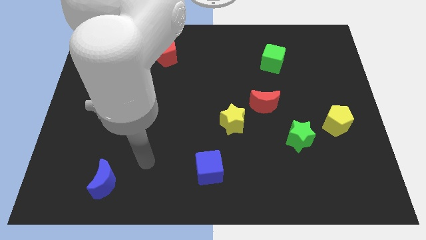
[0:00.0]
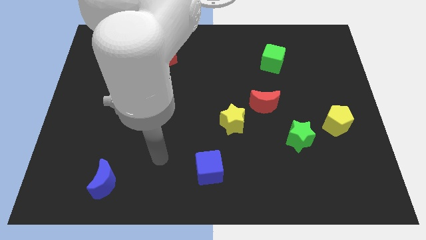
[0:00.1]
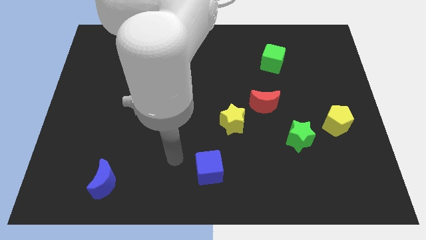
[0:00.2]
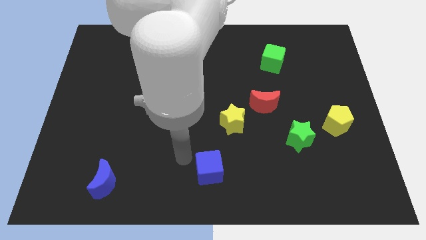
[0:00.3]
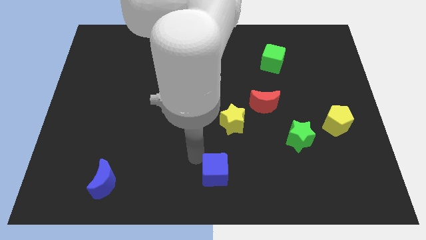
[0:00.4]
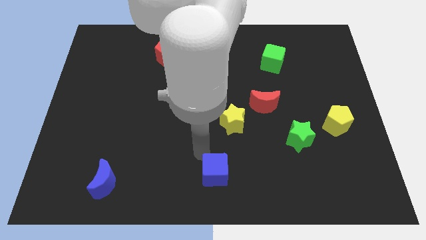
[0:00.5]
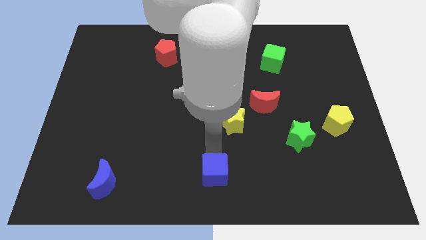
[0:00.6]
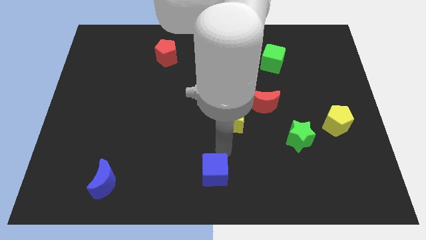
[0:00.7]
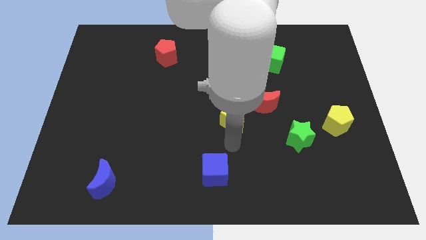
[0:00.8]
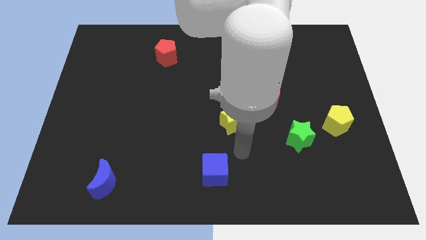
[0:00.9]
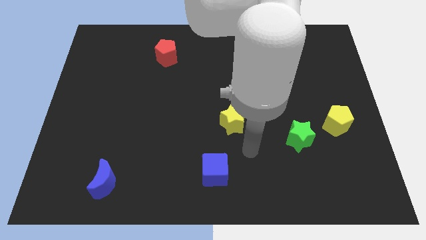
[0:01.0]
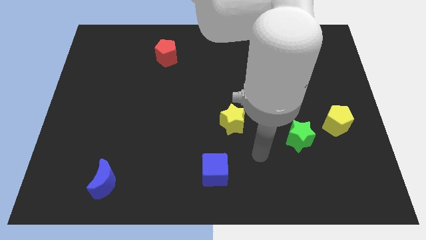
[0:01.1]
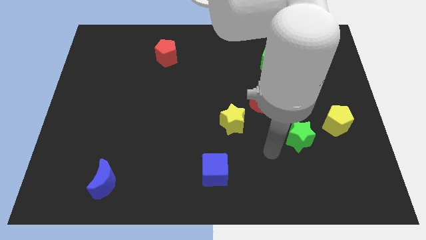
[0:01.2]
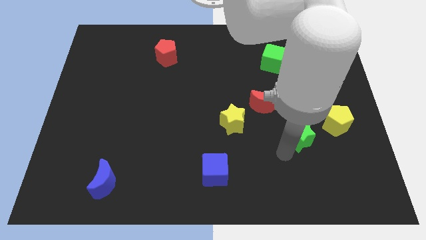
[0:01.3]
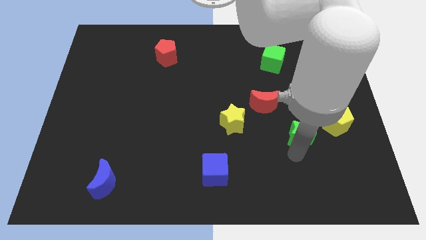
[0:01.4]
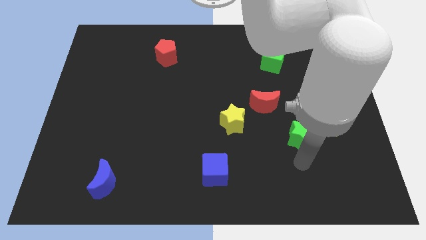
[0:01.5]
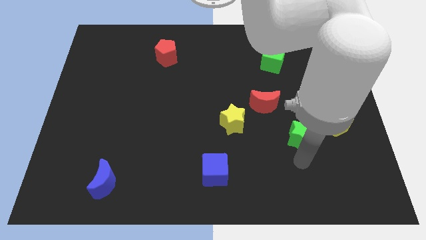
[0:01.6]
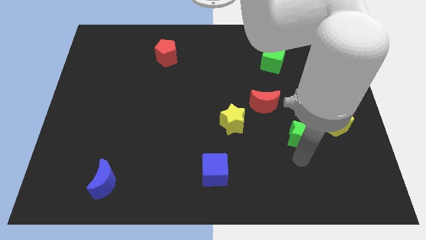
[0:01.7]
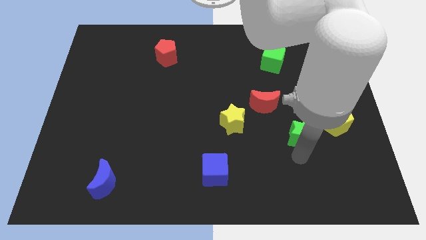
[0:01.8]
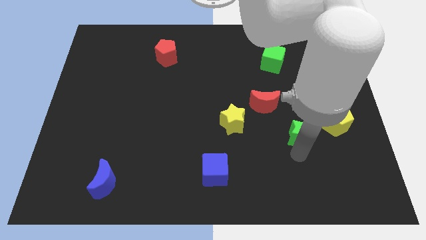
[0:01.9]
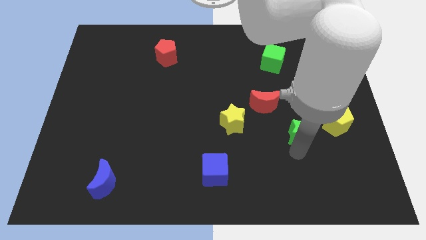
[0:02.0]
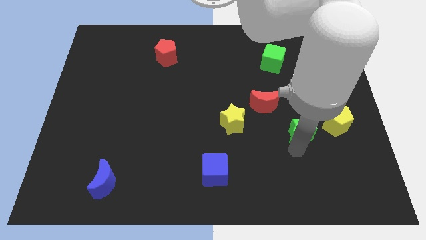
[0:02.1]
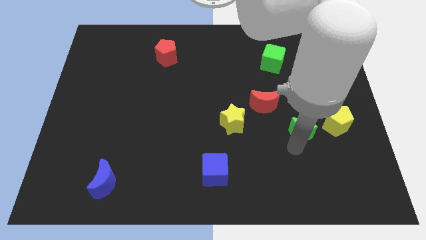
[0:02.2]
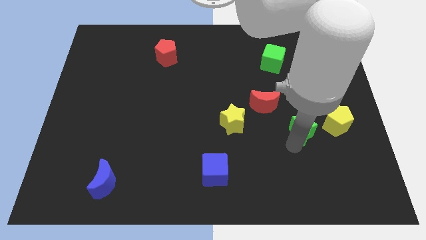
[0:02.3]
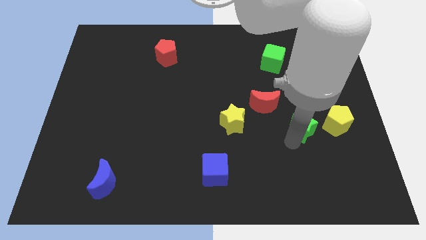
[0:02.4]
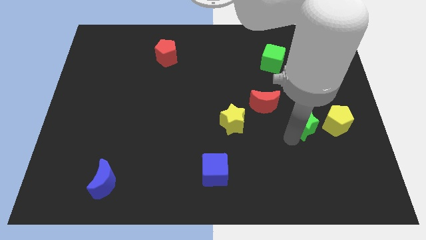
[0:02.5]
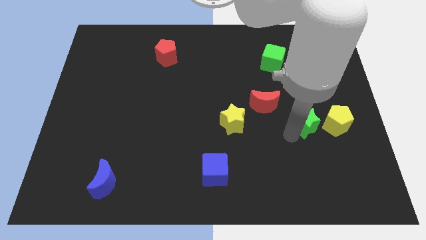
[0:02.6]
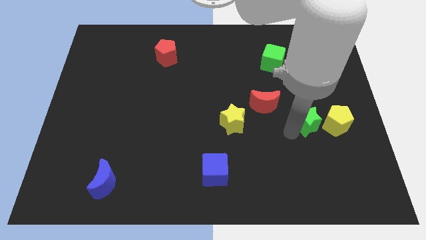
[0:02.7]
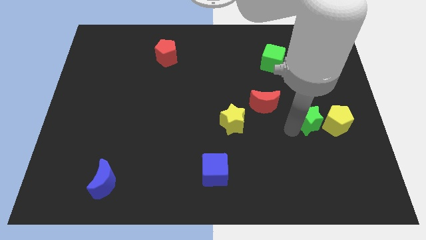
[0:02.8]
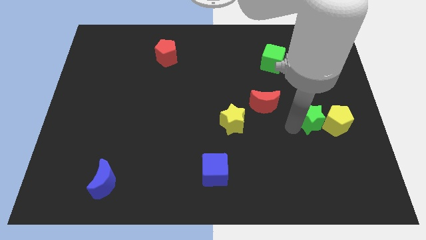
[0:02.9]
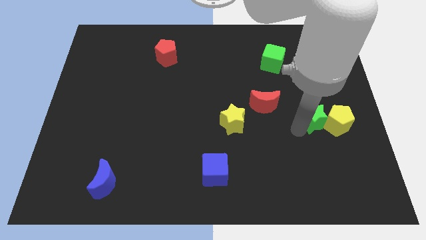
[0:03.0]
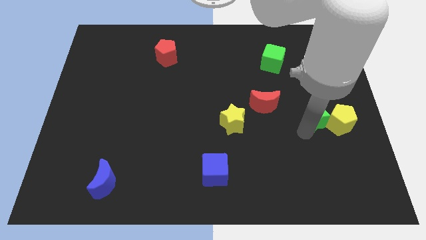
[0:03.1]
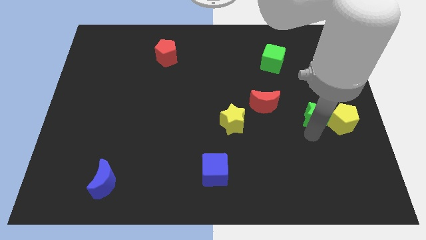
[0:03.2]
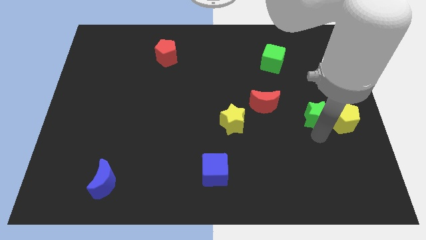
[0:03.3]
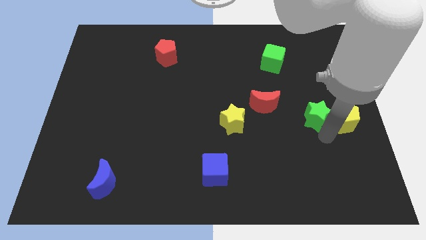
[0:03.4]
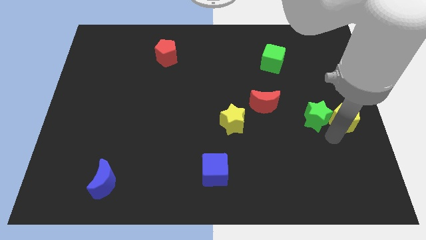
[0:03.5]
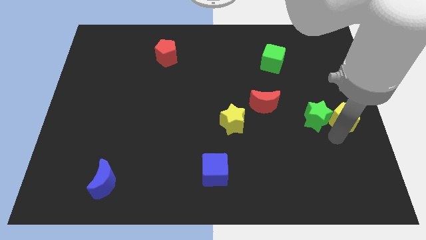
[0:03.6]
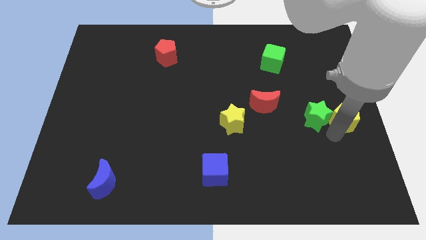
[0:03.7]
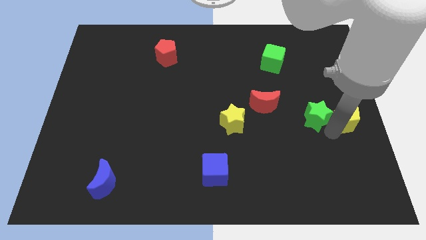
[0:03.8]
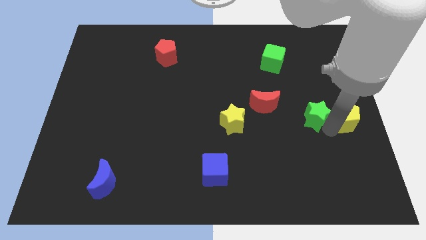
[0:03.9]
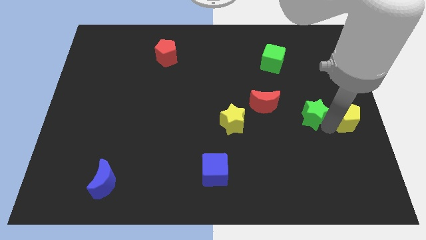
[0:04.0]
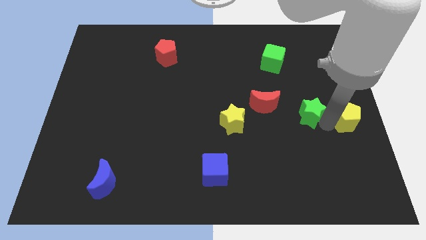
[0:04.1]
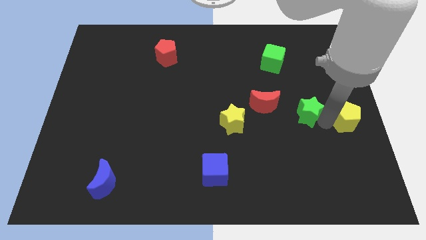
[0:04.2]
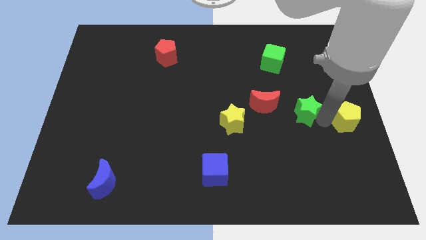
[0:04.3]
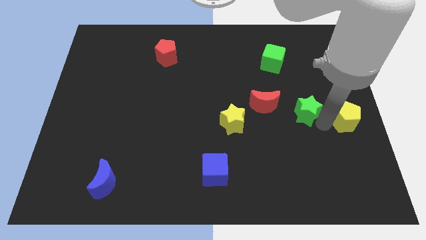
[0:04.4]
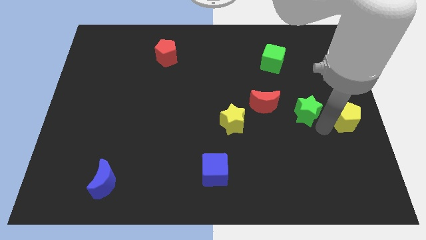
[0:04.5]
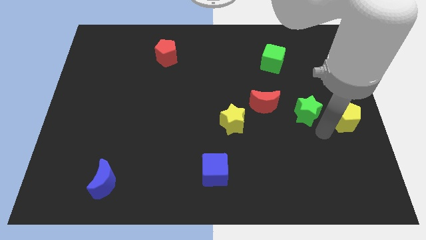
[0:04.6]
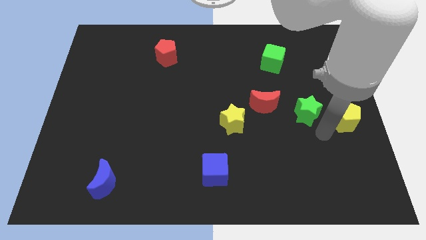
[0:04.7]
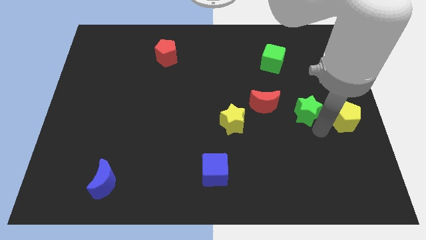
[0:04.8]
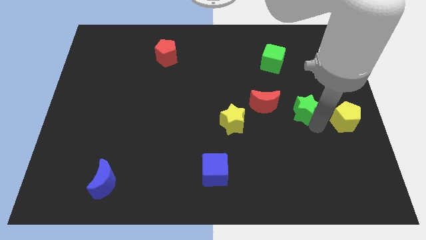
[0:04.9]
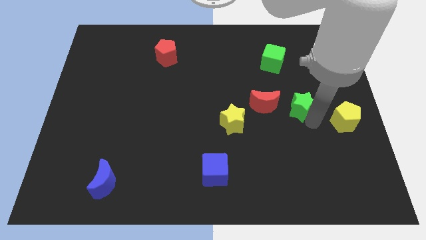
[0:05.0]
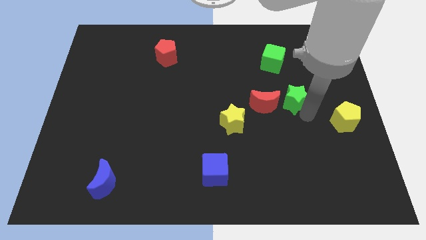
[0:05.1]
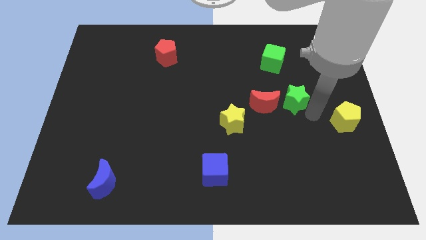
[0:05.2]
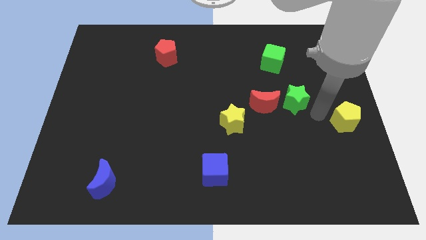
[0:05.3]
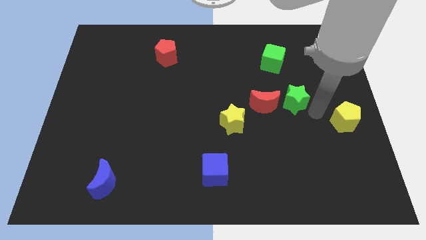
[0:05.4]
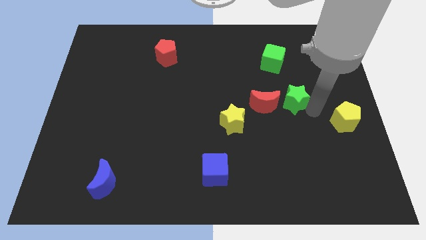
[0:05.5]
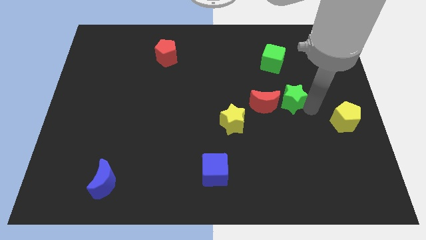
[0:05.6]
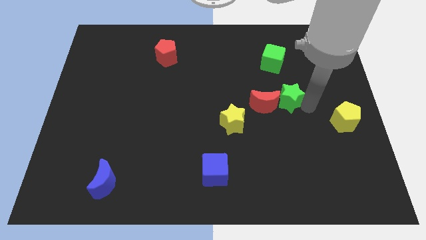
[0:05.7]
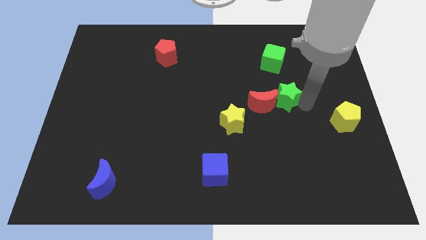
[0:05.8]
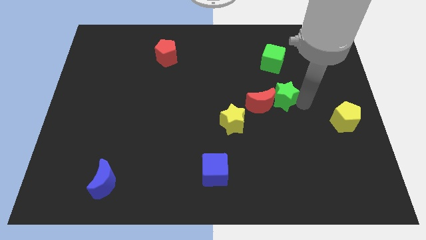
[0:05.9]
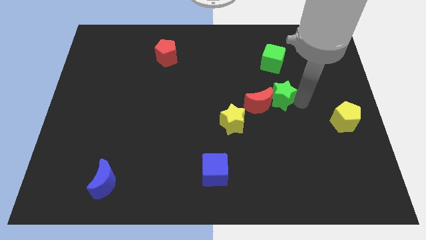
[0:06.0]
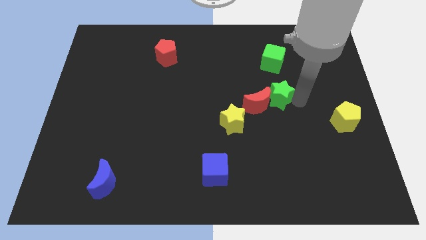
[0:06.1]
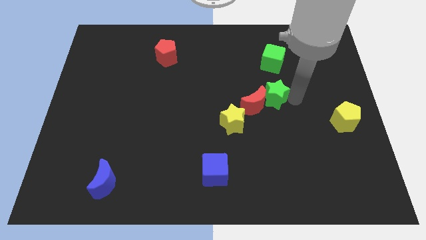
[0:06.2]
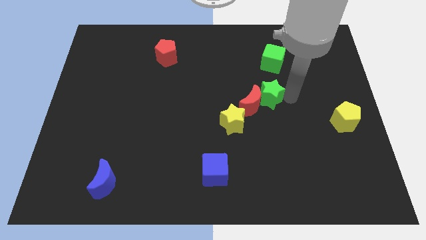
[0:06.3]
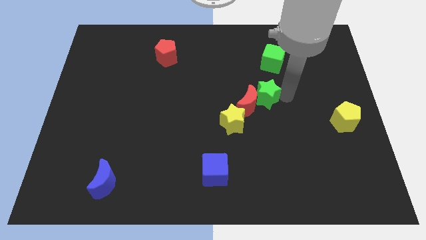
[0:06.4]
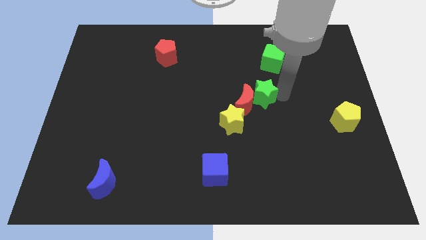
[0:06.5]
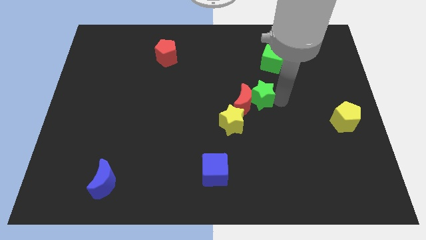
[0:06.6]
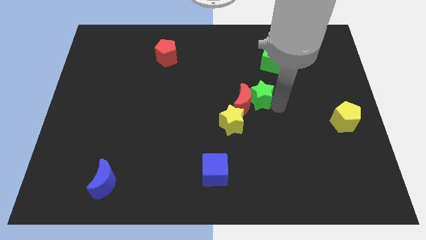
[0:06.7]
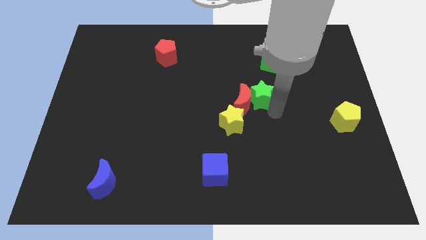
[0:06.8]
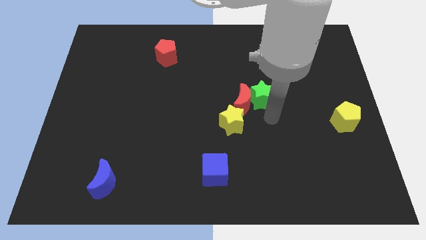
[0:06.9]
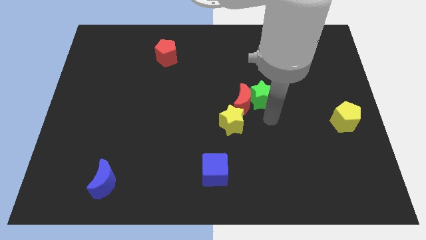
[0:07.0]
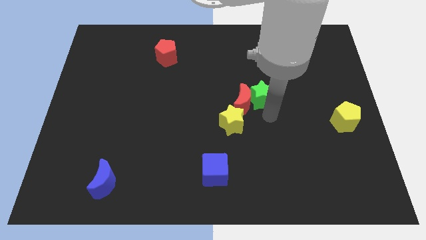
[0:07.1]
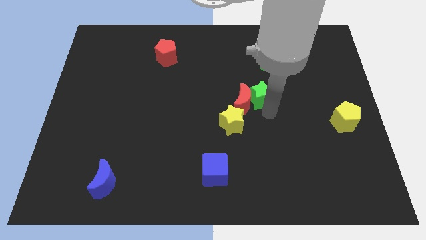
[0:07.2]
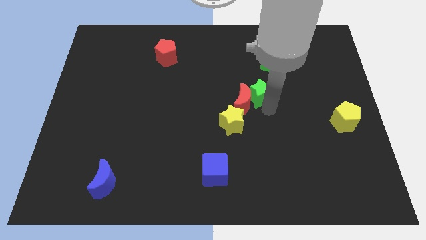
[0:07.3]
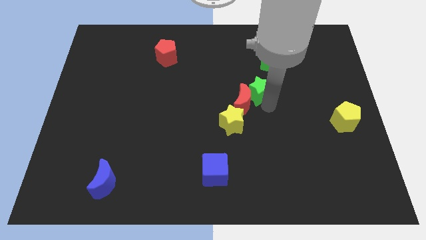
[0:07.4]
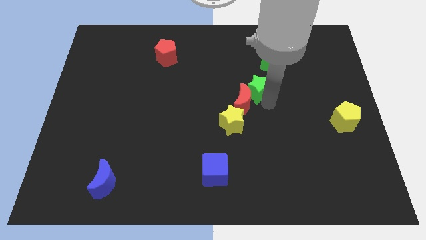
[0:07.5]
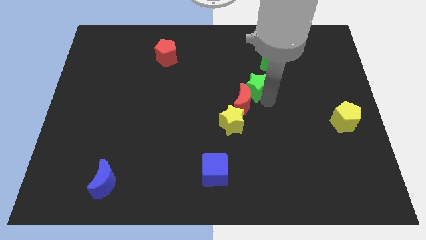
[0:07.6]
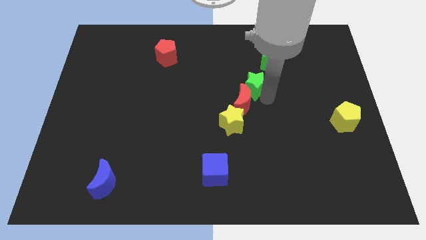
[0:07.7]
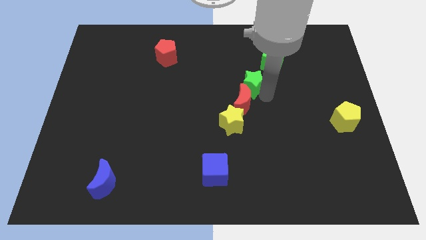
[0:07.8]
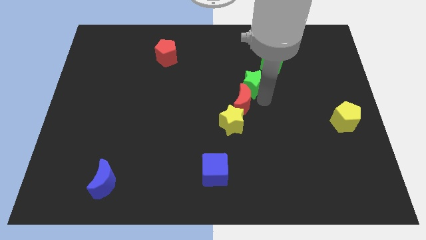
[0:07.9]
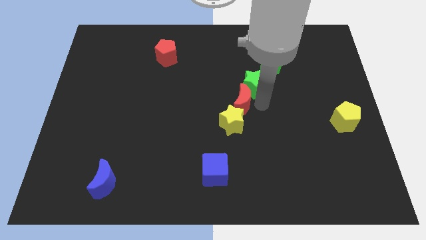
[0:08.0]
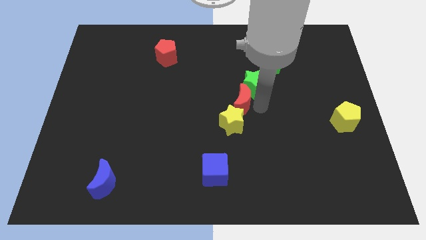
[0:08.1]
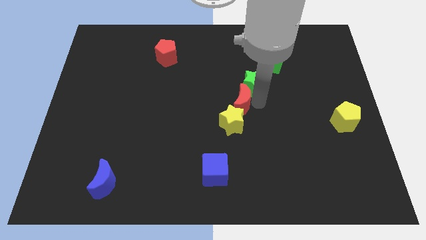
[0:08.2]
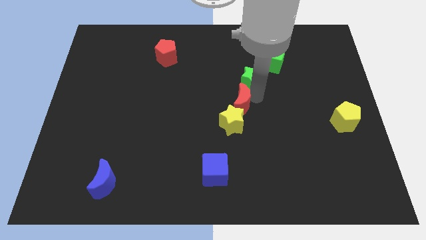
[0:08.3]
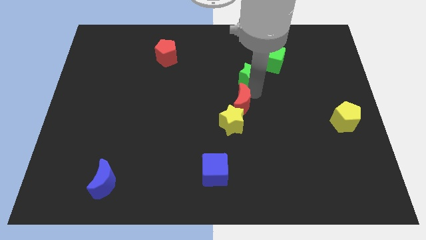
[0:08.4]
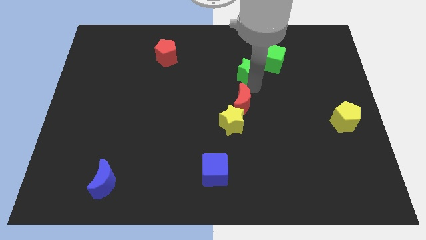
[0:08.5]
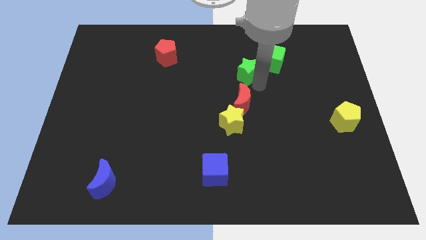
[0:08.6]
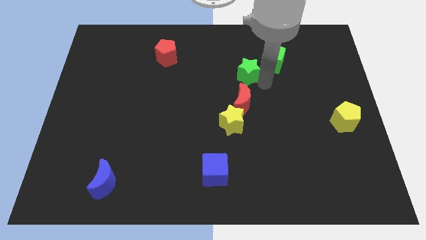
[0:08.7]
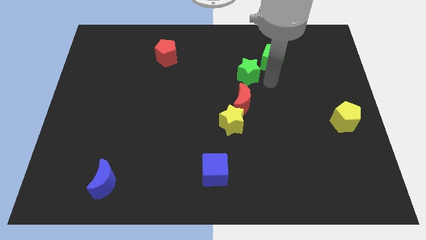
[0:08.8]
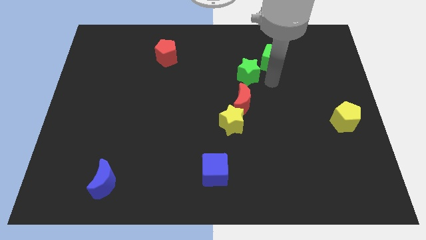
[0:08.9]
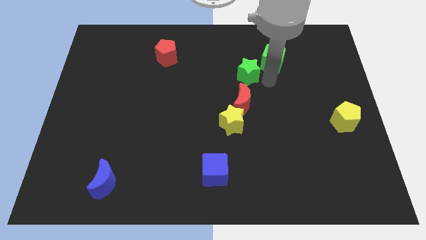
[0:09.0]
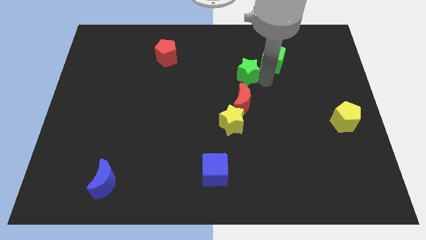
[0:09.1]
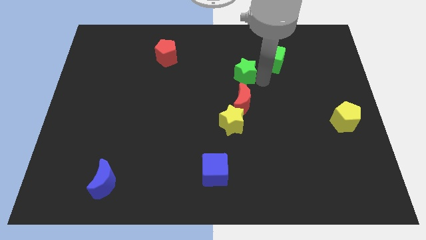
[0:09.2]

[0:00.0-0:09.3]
move the green star diagonally upwards and to the left
